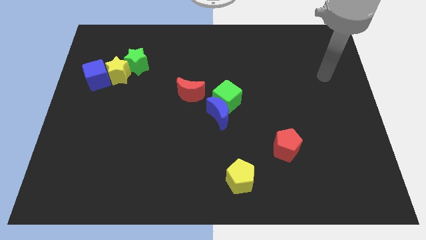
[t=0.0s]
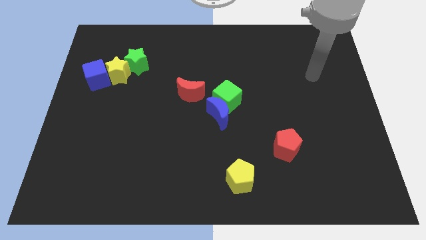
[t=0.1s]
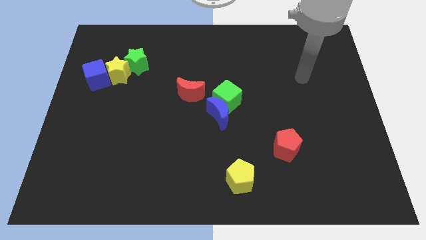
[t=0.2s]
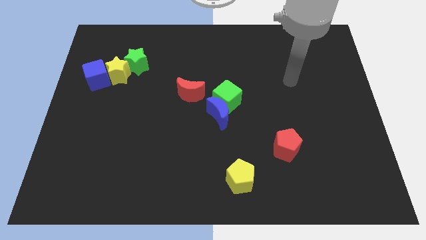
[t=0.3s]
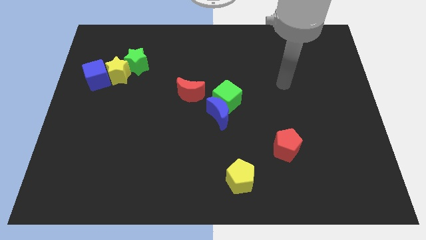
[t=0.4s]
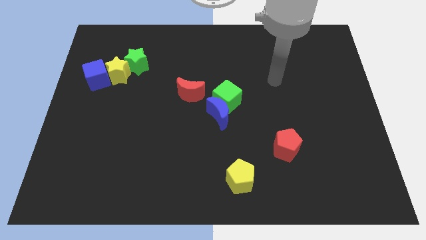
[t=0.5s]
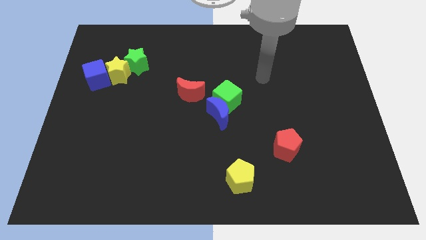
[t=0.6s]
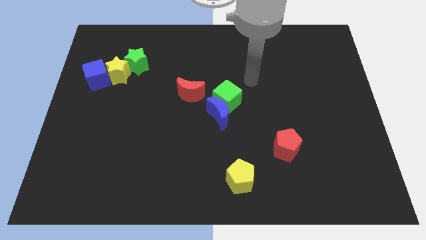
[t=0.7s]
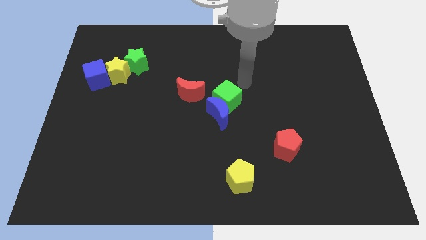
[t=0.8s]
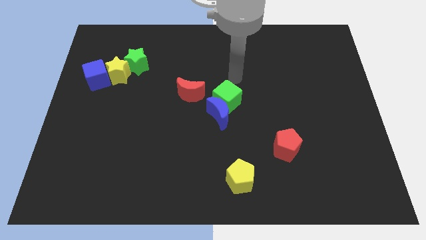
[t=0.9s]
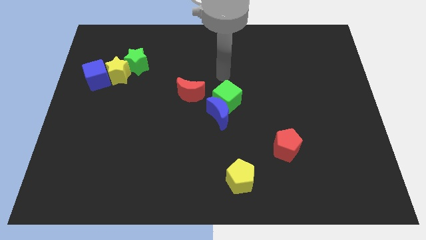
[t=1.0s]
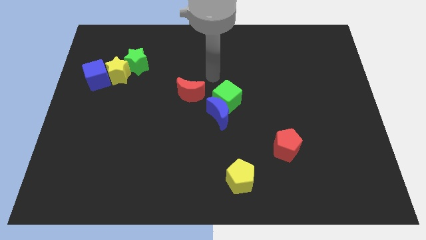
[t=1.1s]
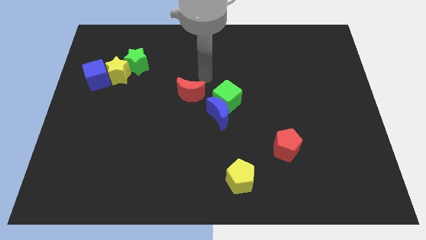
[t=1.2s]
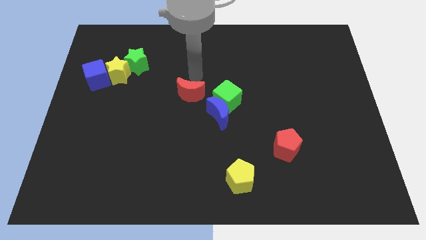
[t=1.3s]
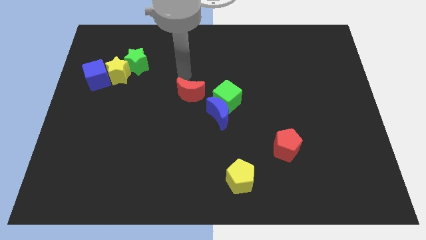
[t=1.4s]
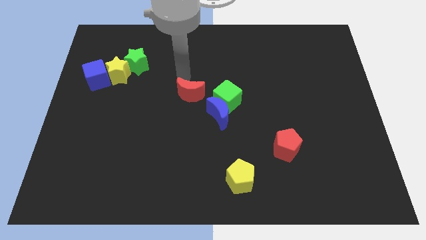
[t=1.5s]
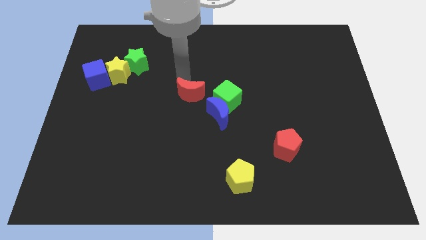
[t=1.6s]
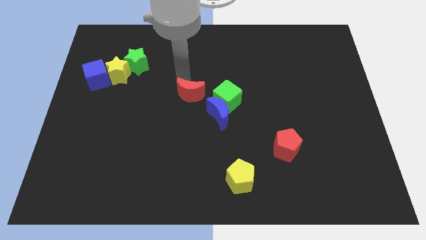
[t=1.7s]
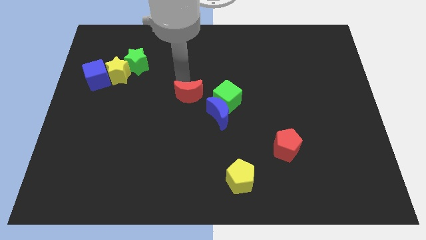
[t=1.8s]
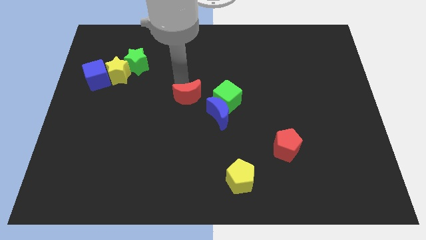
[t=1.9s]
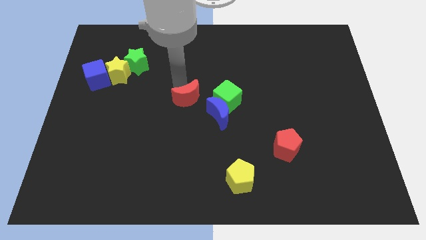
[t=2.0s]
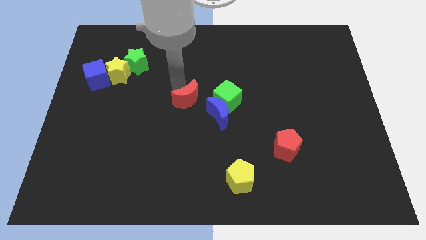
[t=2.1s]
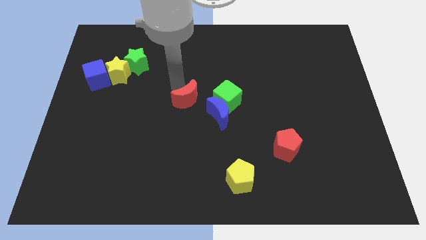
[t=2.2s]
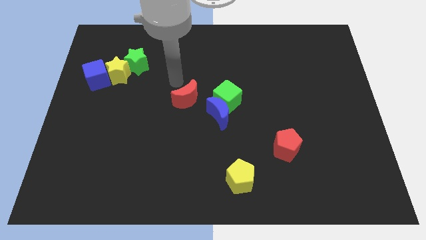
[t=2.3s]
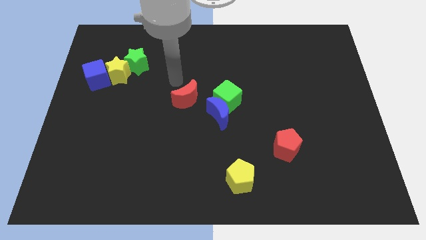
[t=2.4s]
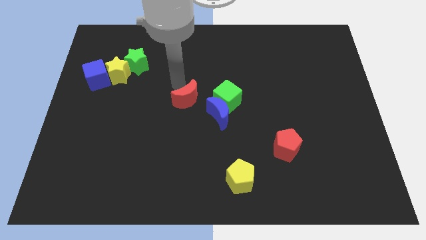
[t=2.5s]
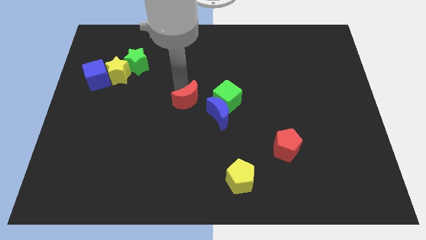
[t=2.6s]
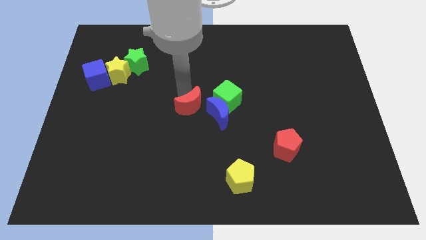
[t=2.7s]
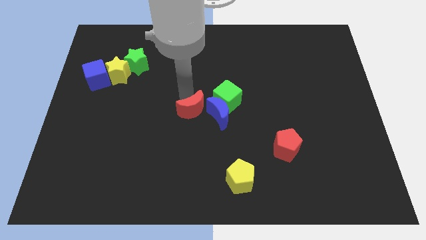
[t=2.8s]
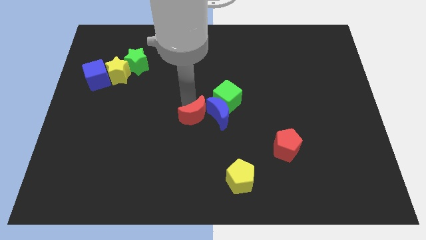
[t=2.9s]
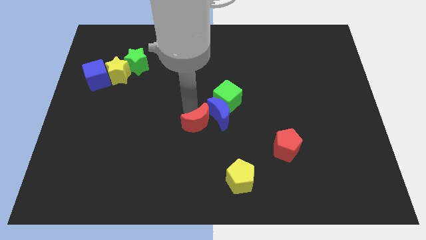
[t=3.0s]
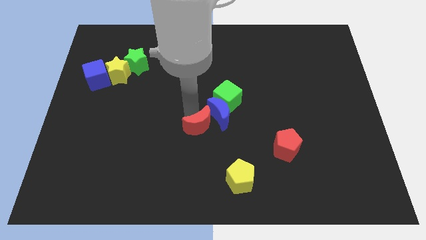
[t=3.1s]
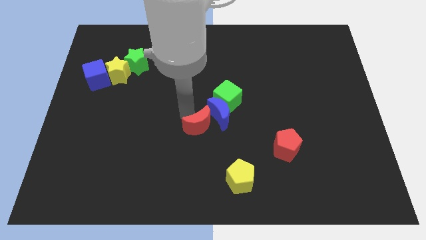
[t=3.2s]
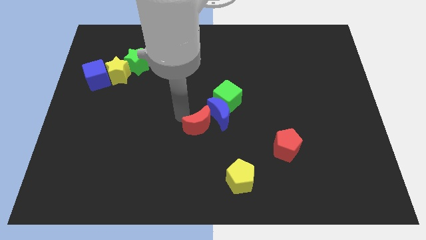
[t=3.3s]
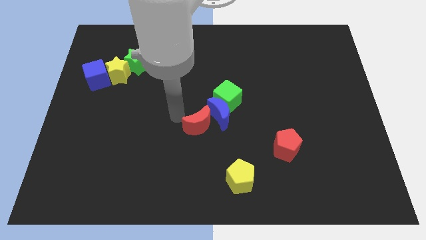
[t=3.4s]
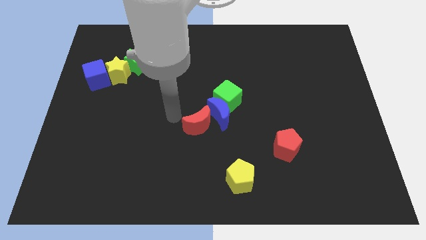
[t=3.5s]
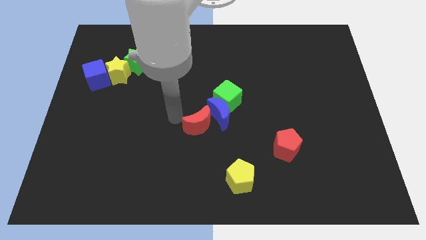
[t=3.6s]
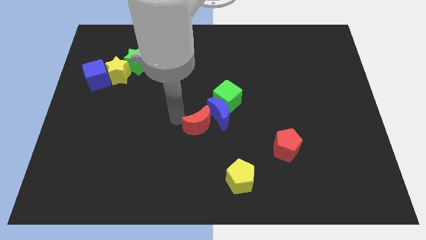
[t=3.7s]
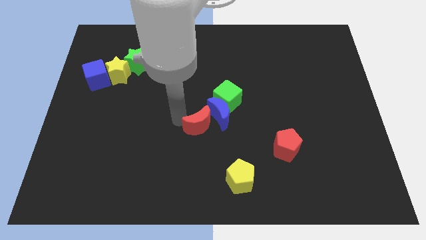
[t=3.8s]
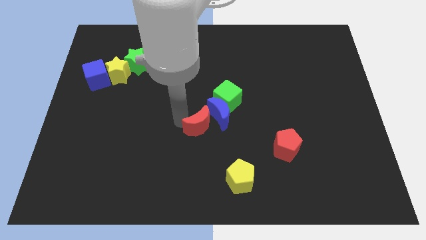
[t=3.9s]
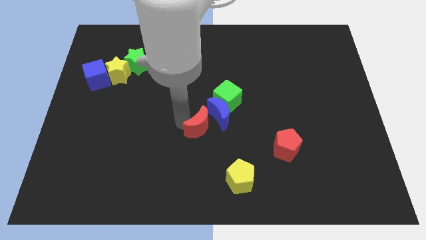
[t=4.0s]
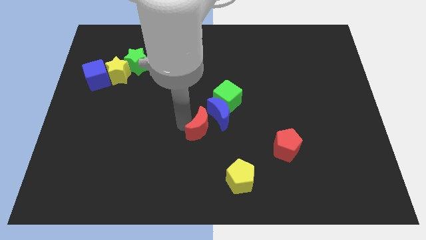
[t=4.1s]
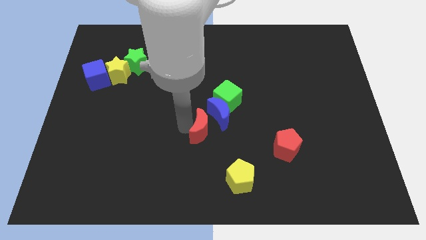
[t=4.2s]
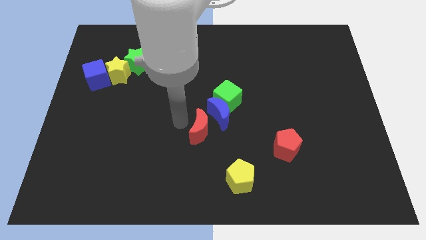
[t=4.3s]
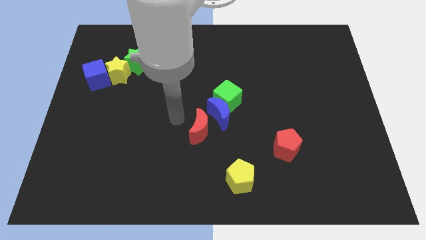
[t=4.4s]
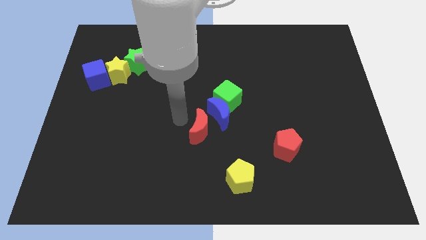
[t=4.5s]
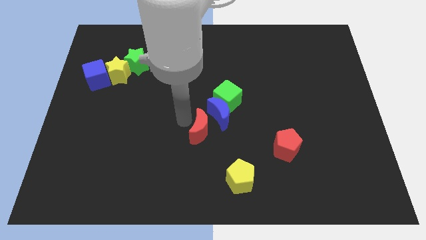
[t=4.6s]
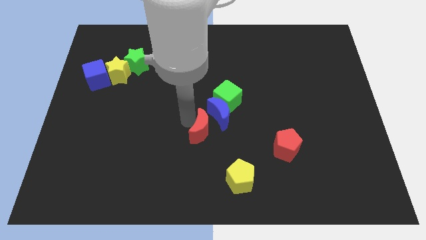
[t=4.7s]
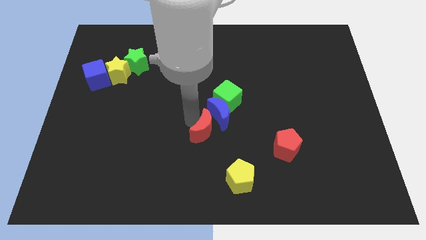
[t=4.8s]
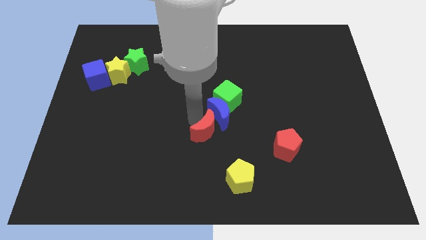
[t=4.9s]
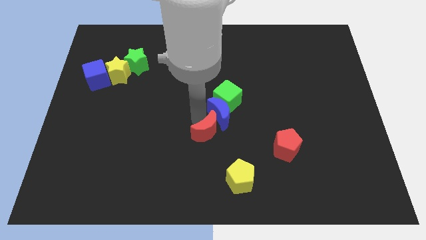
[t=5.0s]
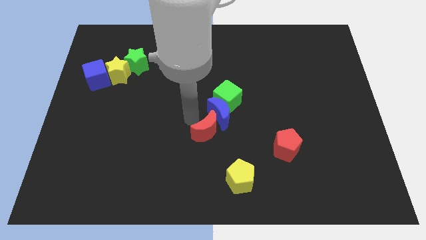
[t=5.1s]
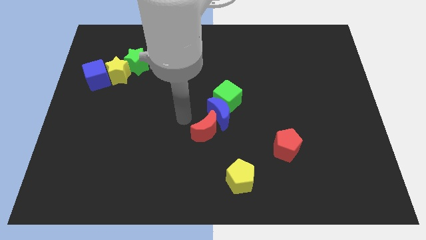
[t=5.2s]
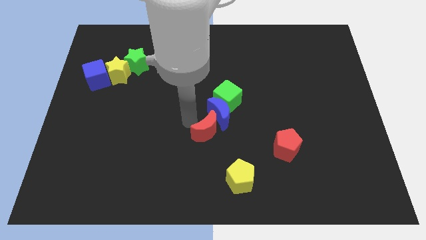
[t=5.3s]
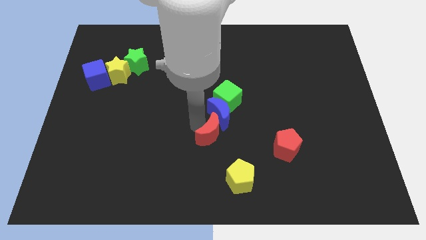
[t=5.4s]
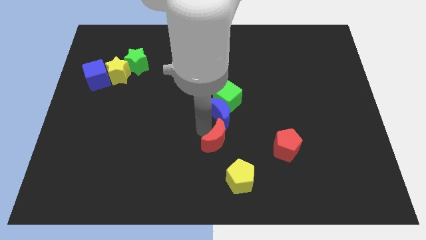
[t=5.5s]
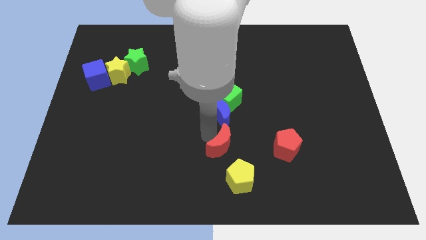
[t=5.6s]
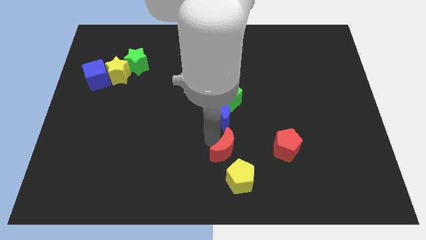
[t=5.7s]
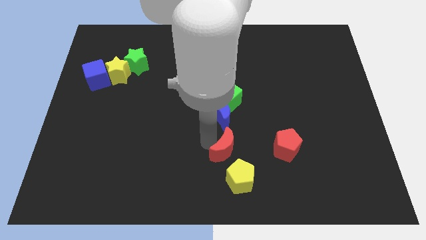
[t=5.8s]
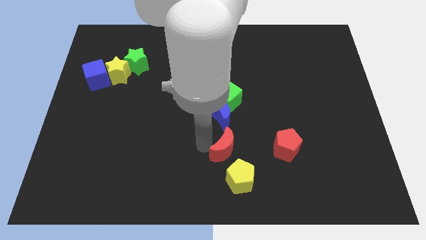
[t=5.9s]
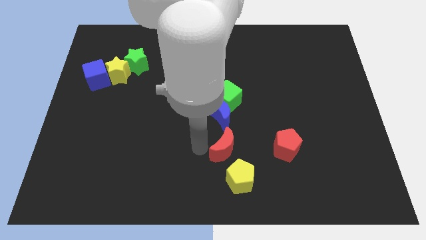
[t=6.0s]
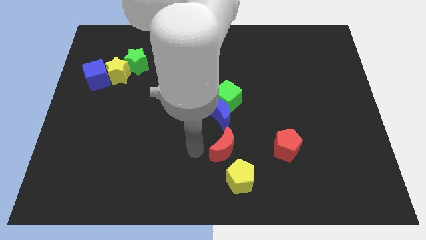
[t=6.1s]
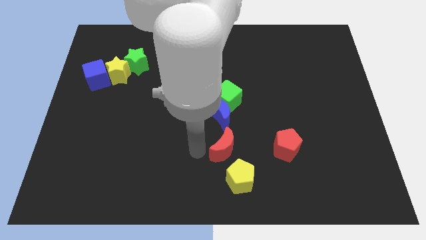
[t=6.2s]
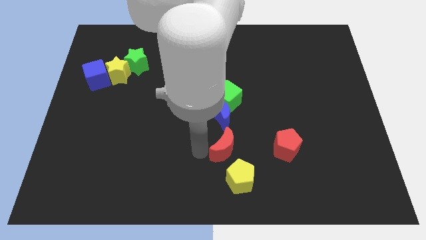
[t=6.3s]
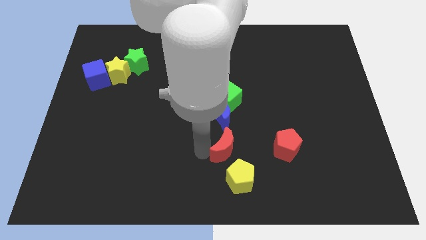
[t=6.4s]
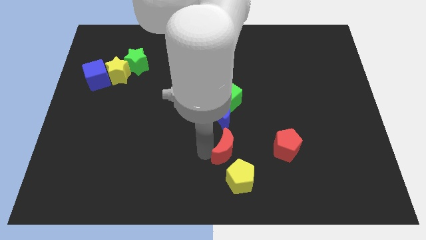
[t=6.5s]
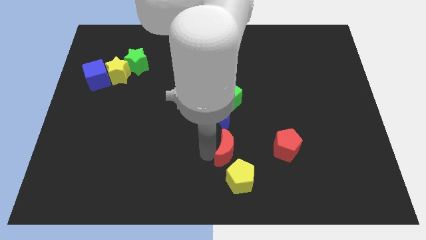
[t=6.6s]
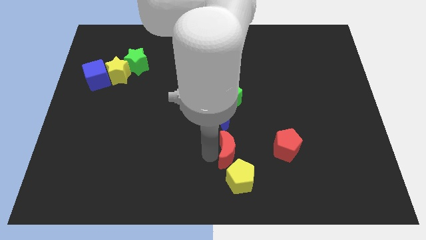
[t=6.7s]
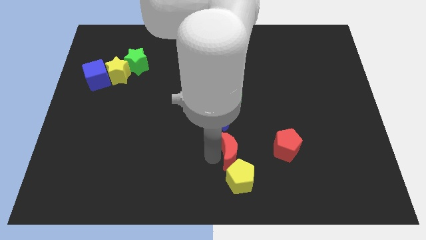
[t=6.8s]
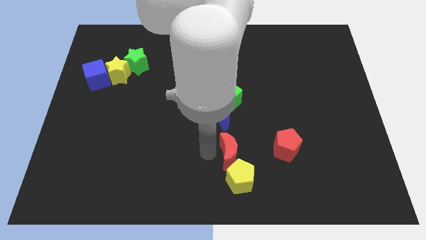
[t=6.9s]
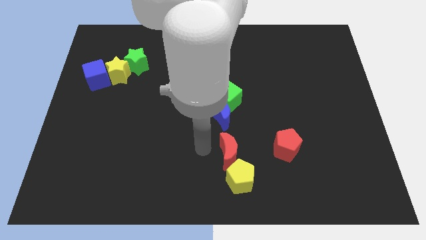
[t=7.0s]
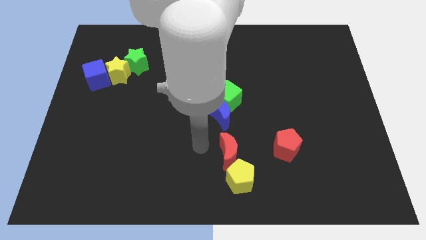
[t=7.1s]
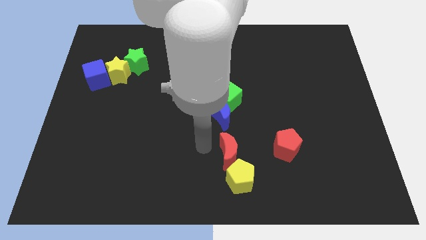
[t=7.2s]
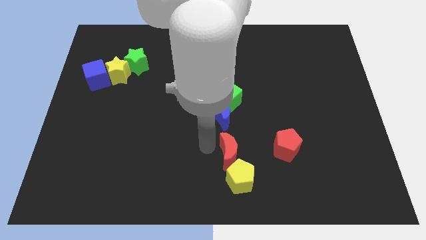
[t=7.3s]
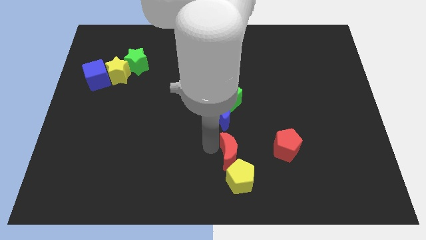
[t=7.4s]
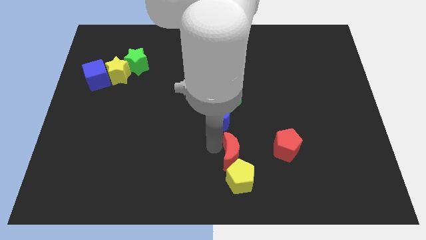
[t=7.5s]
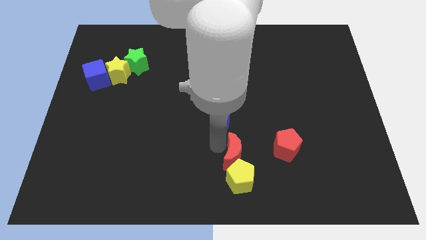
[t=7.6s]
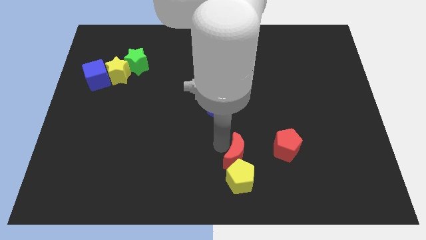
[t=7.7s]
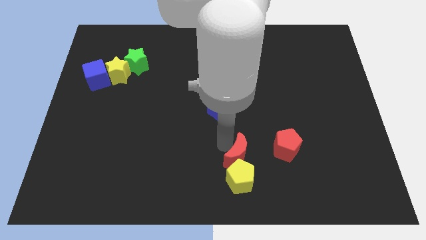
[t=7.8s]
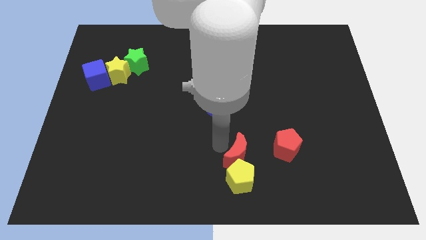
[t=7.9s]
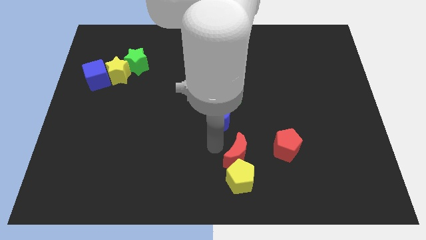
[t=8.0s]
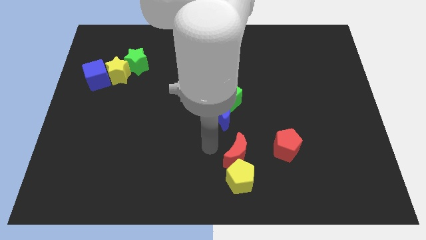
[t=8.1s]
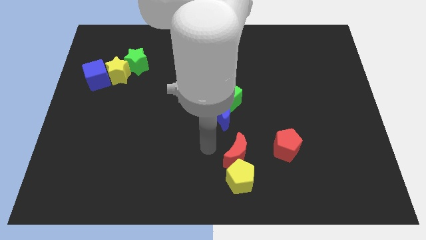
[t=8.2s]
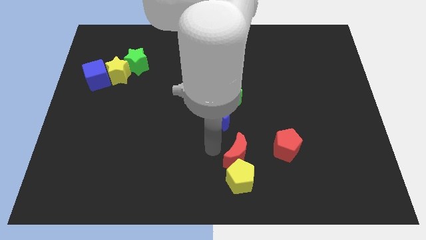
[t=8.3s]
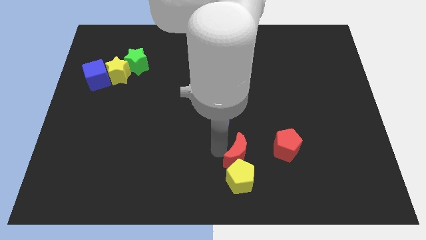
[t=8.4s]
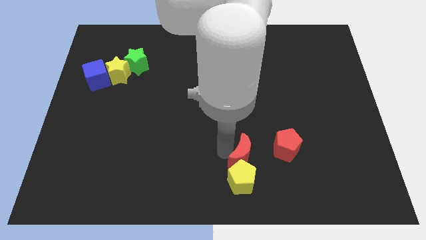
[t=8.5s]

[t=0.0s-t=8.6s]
push the red moon diagonally downwards and right

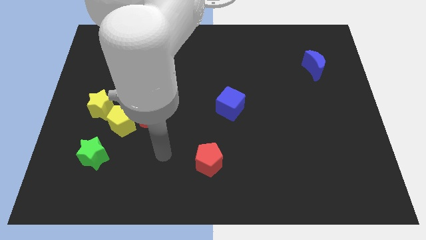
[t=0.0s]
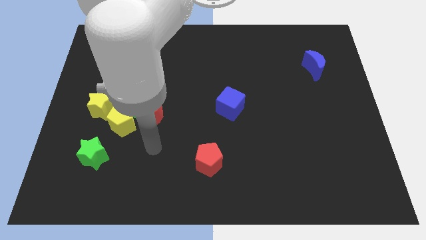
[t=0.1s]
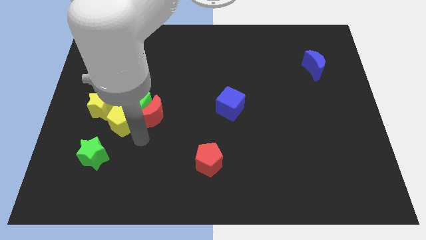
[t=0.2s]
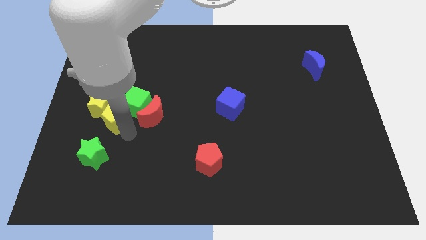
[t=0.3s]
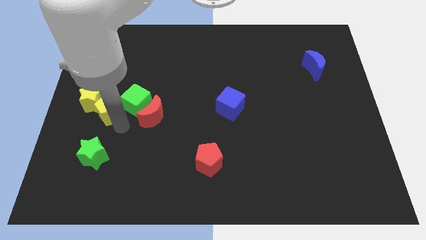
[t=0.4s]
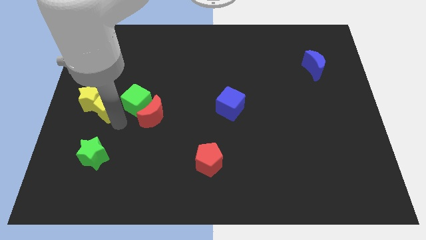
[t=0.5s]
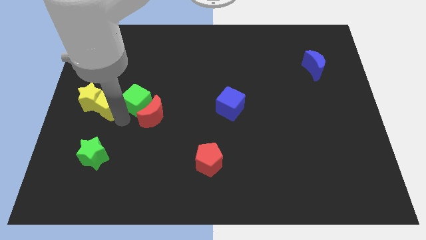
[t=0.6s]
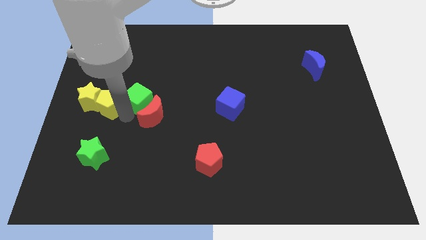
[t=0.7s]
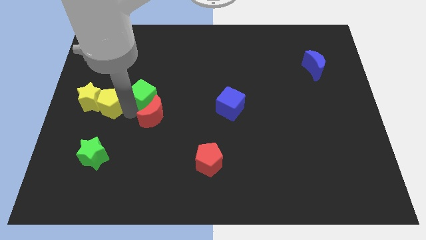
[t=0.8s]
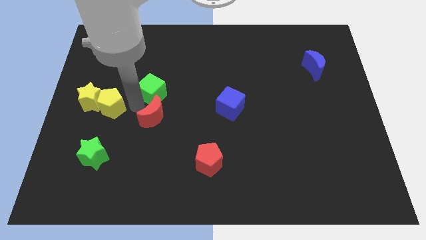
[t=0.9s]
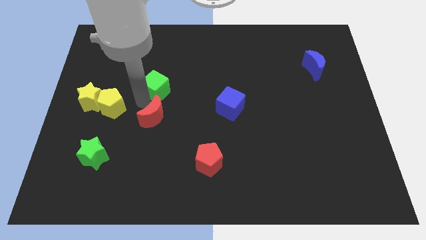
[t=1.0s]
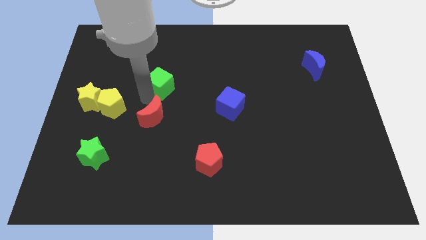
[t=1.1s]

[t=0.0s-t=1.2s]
push the green cube a bit upwards and right diagonally
